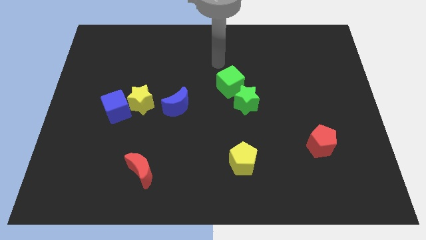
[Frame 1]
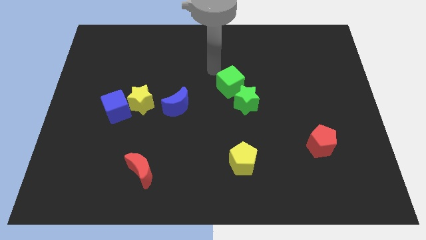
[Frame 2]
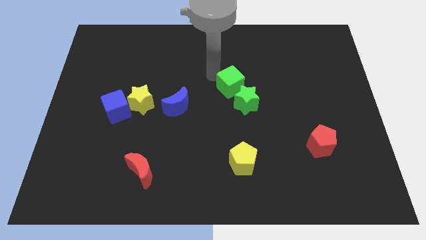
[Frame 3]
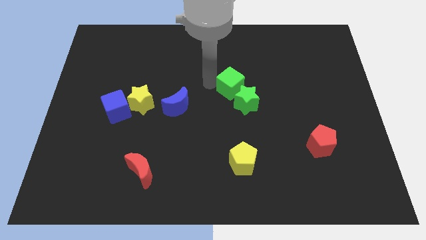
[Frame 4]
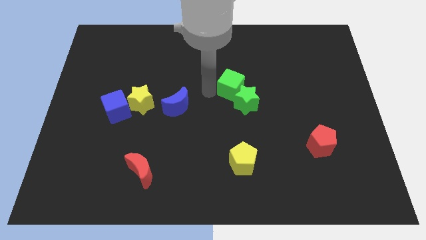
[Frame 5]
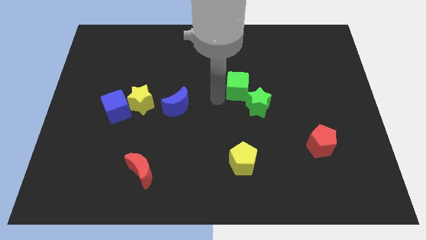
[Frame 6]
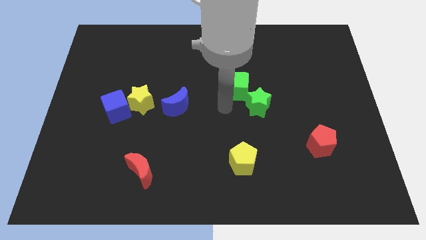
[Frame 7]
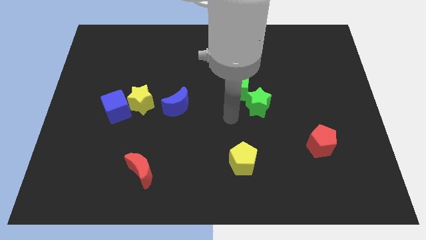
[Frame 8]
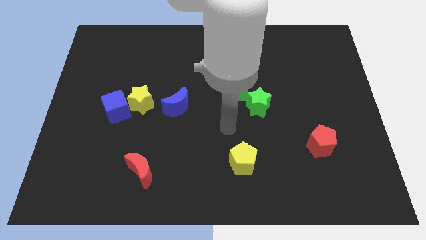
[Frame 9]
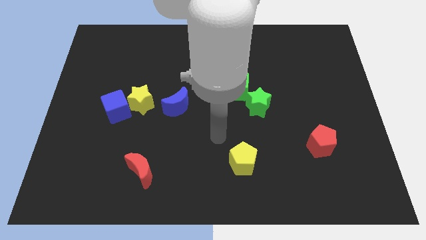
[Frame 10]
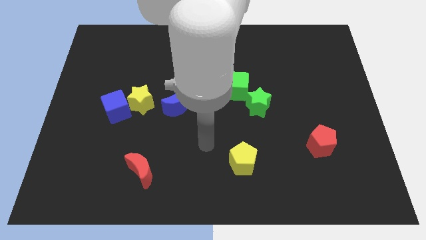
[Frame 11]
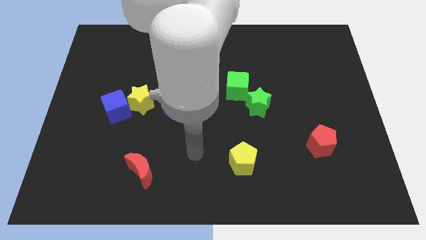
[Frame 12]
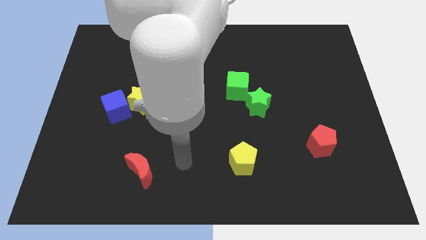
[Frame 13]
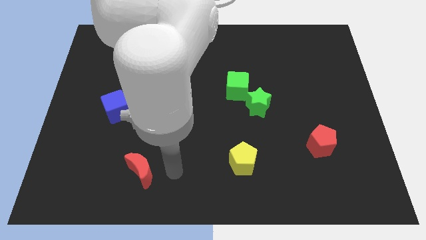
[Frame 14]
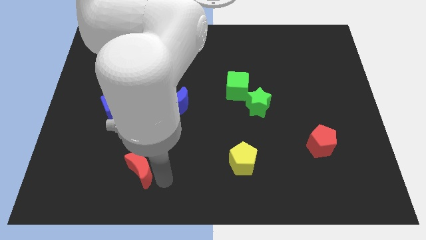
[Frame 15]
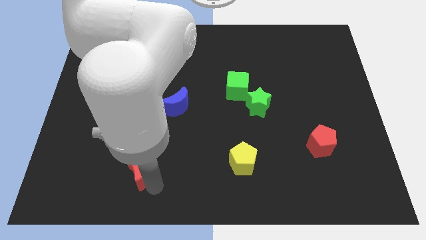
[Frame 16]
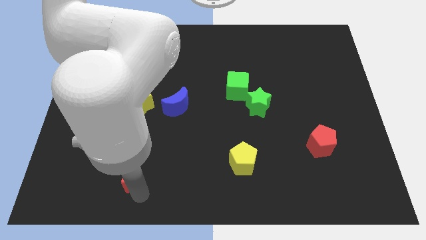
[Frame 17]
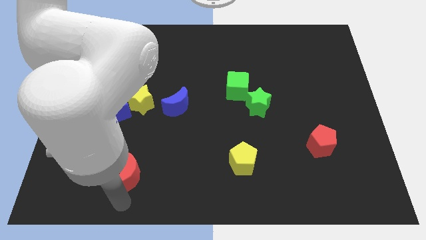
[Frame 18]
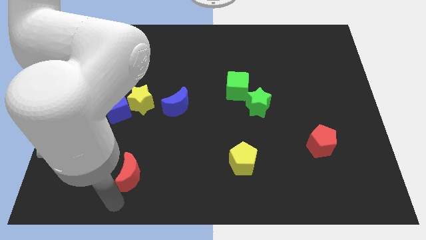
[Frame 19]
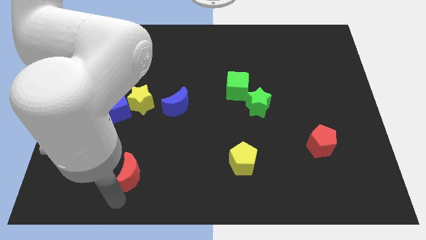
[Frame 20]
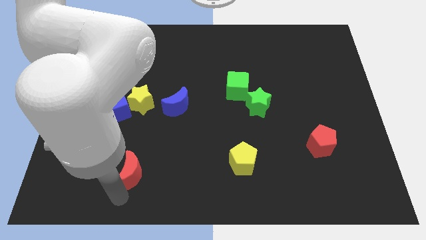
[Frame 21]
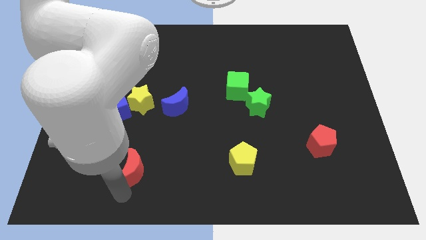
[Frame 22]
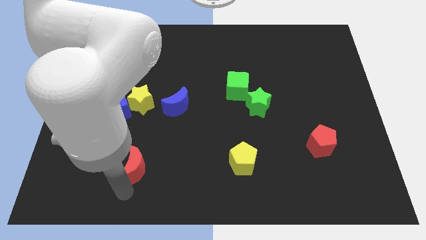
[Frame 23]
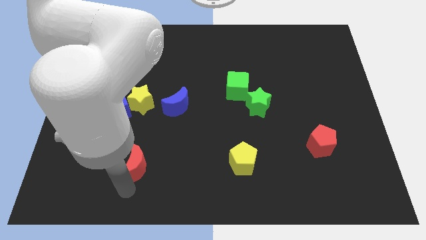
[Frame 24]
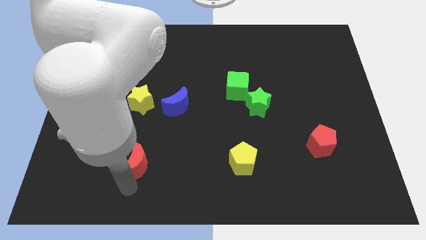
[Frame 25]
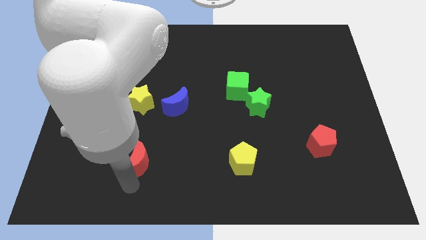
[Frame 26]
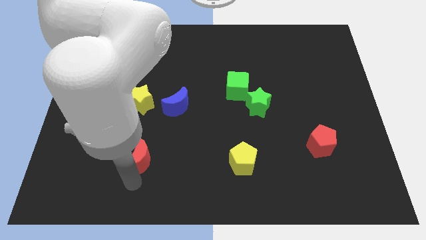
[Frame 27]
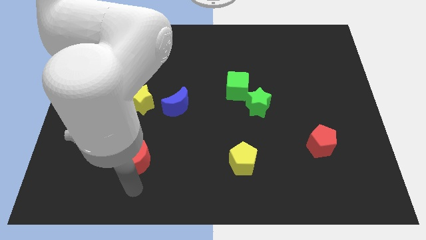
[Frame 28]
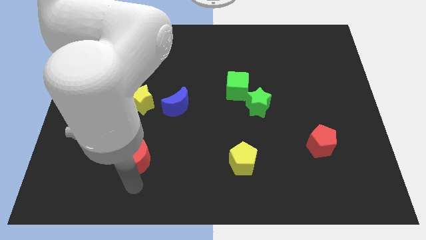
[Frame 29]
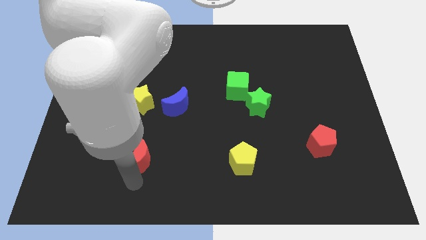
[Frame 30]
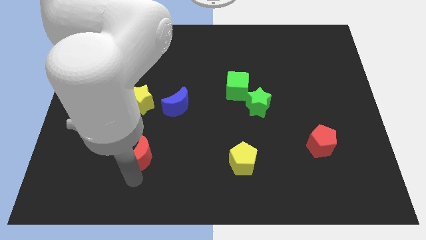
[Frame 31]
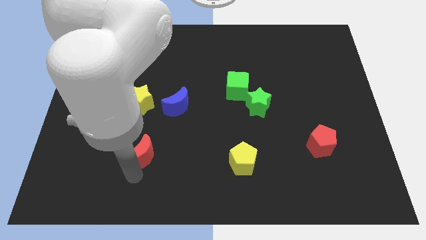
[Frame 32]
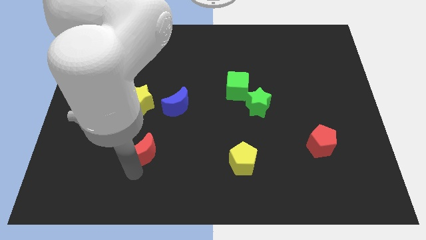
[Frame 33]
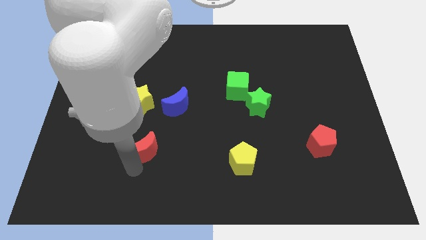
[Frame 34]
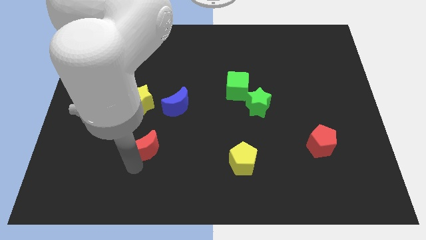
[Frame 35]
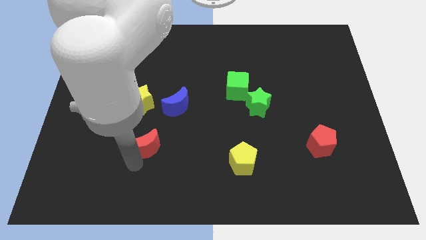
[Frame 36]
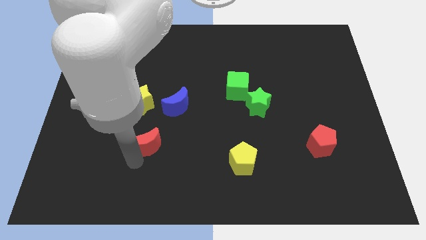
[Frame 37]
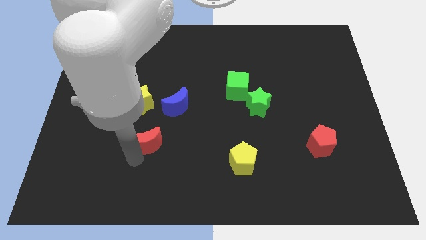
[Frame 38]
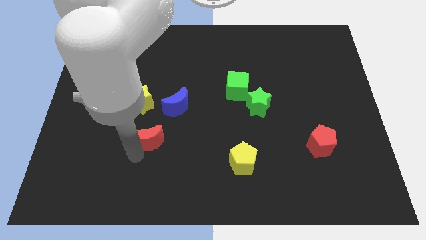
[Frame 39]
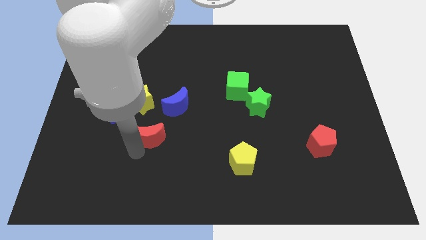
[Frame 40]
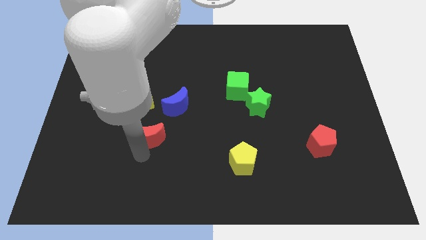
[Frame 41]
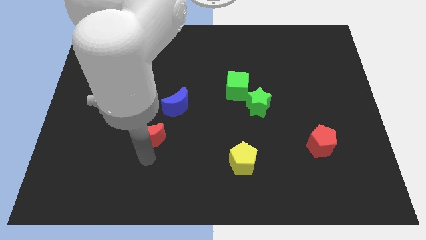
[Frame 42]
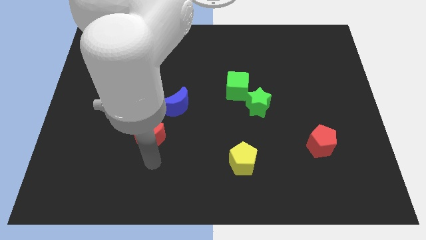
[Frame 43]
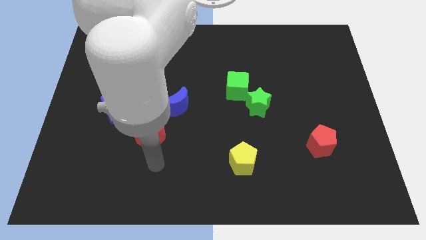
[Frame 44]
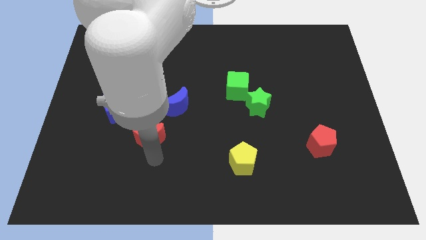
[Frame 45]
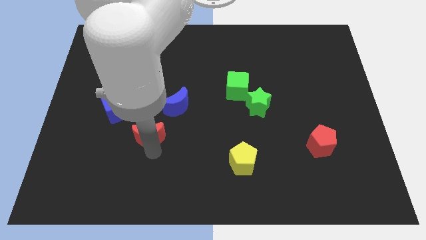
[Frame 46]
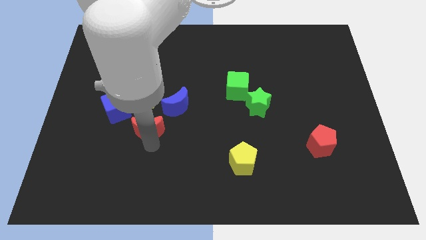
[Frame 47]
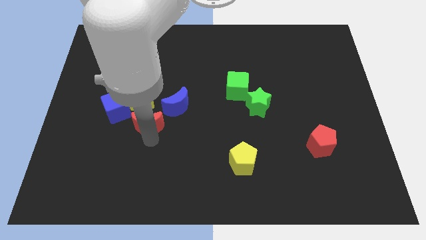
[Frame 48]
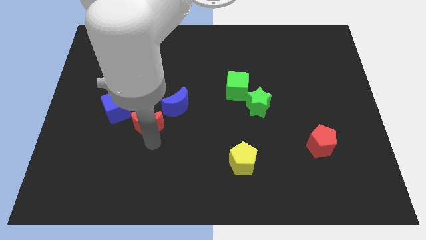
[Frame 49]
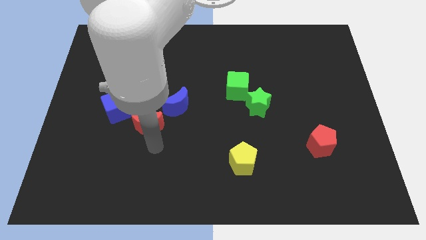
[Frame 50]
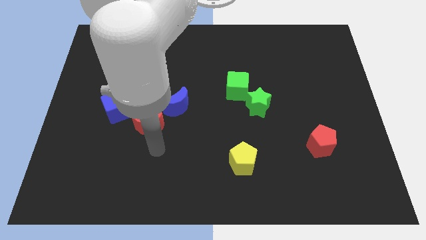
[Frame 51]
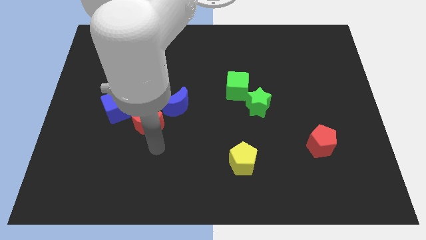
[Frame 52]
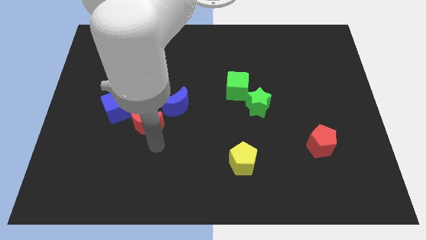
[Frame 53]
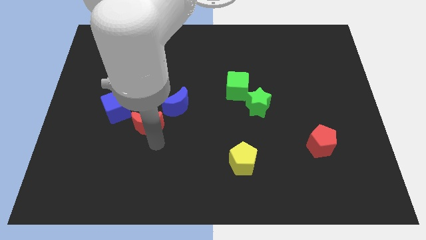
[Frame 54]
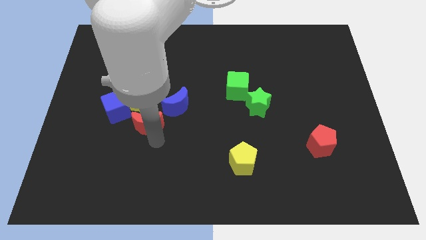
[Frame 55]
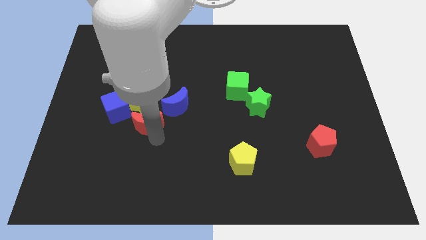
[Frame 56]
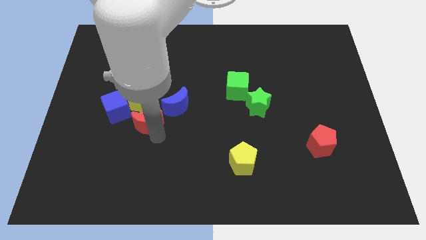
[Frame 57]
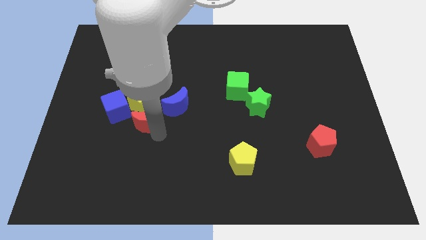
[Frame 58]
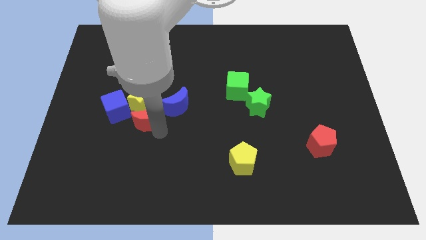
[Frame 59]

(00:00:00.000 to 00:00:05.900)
put the red moon next to the yellow star
